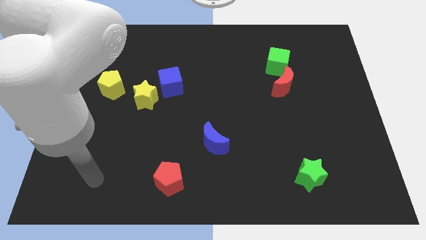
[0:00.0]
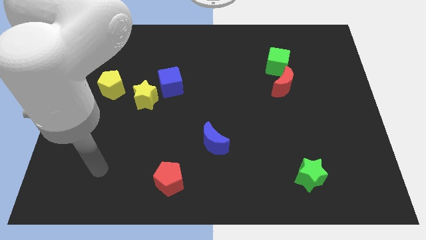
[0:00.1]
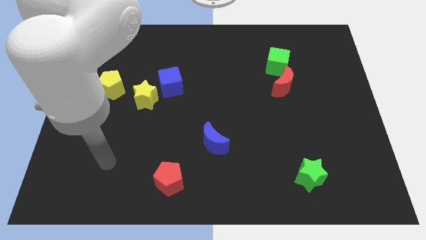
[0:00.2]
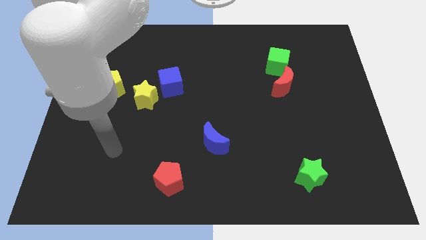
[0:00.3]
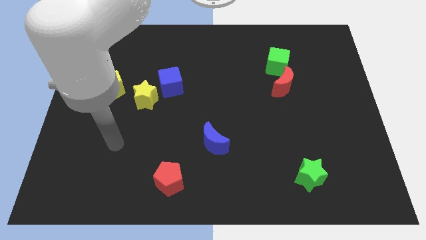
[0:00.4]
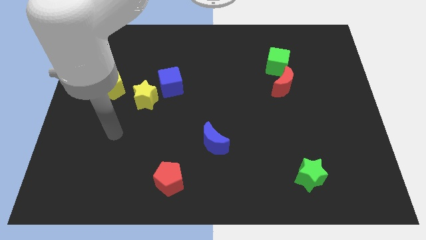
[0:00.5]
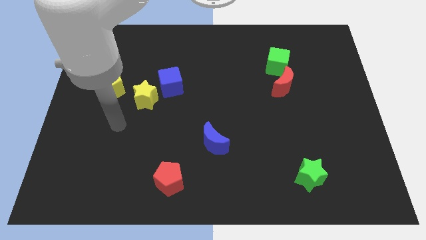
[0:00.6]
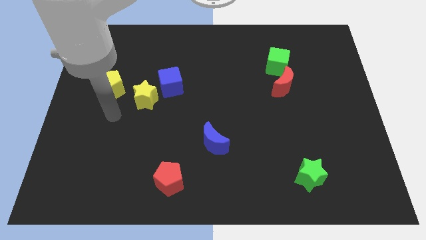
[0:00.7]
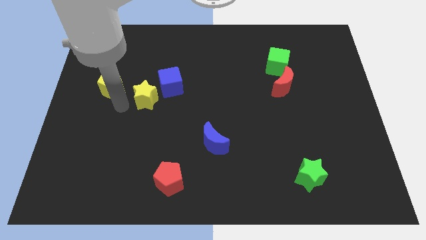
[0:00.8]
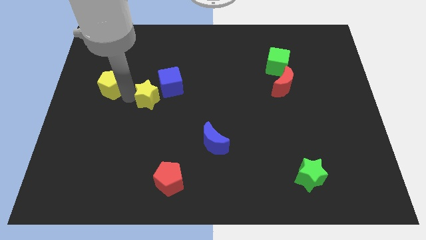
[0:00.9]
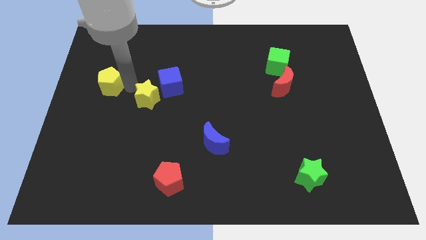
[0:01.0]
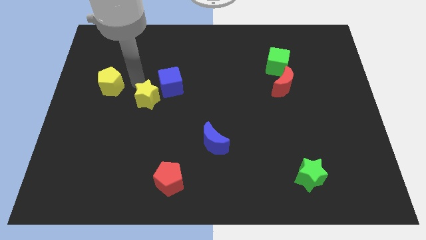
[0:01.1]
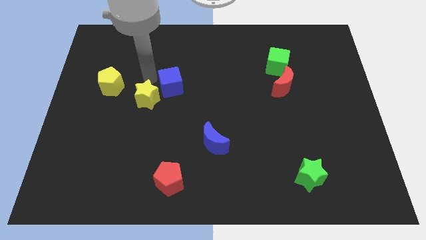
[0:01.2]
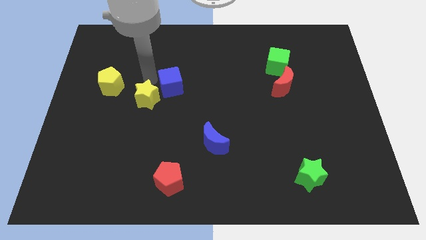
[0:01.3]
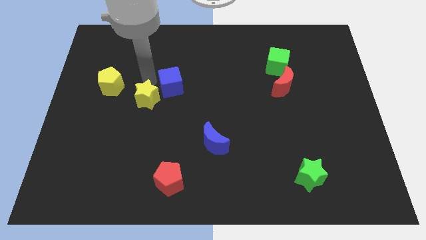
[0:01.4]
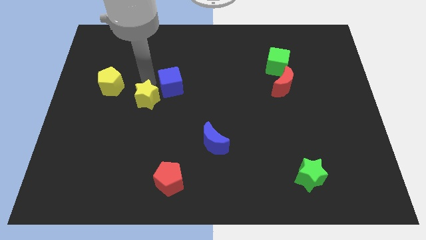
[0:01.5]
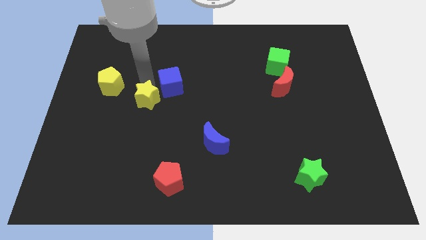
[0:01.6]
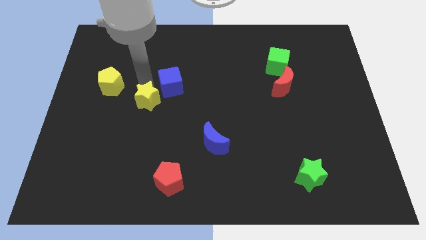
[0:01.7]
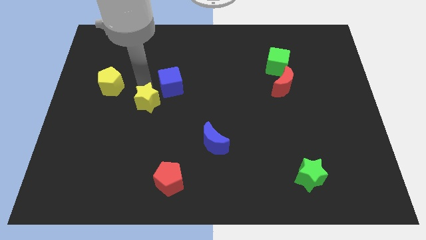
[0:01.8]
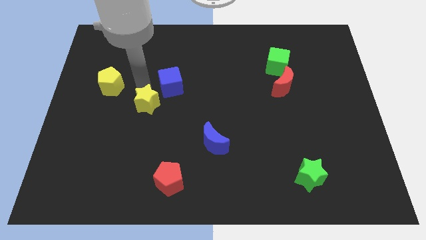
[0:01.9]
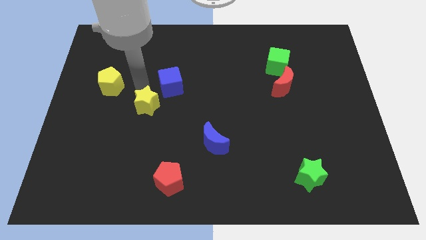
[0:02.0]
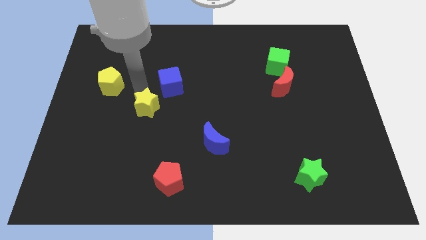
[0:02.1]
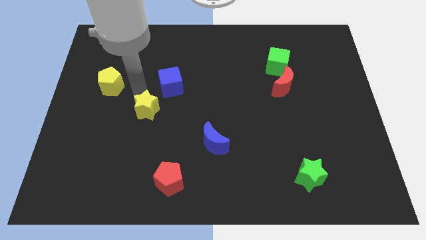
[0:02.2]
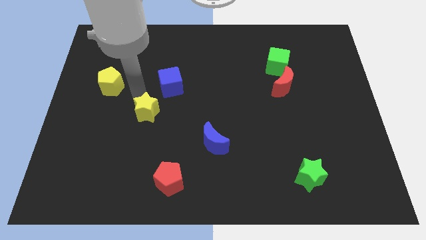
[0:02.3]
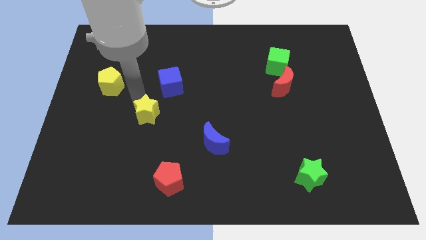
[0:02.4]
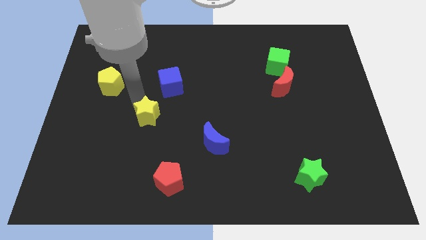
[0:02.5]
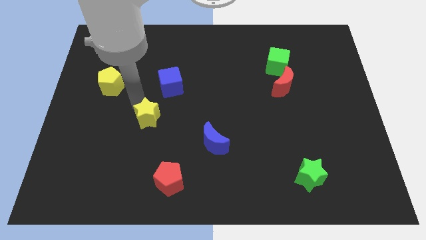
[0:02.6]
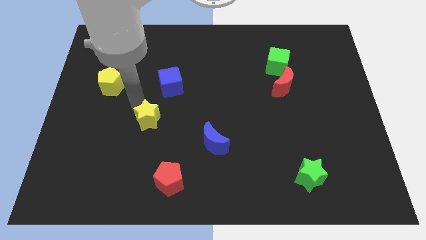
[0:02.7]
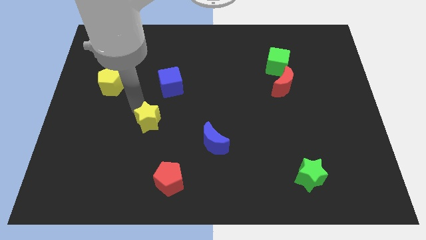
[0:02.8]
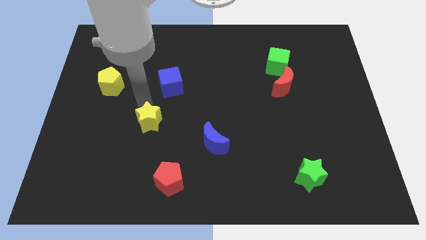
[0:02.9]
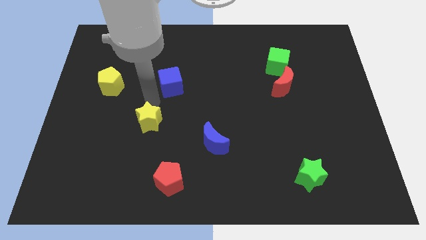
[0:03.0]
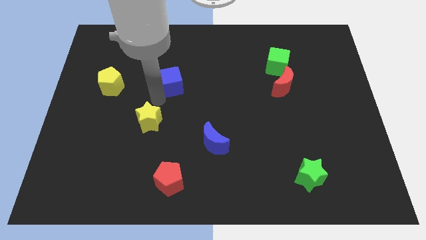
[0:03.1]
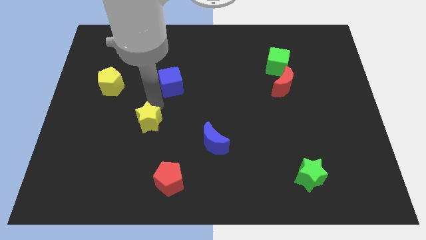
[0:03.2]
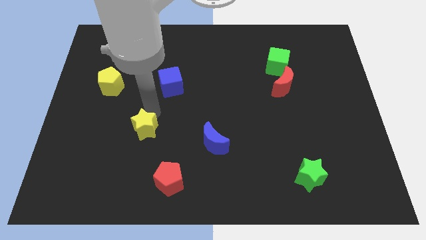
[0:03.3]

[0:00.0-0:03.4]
move the yellow star slightly down

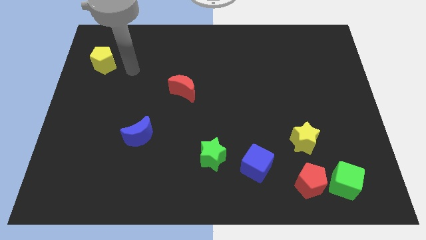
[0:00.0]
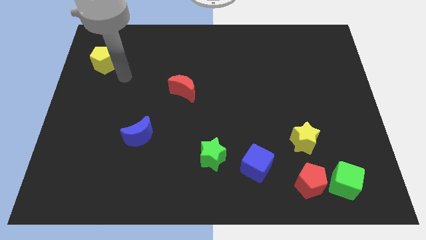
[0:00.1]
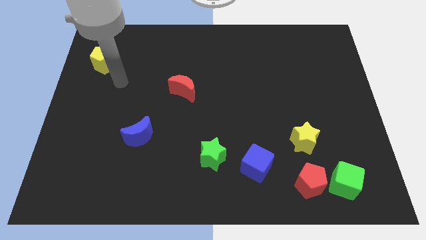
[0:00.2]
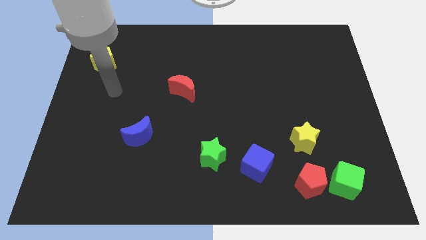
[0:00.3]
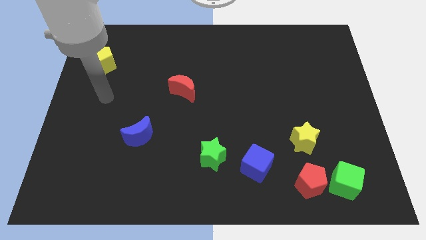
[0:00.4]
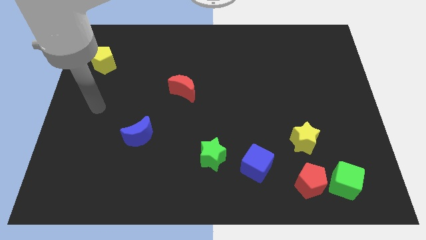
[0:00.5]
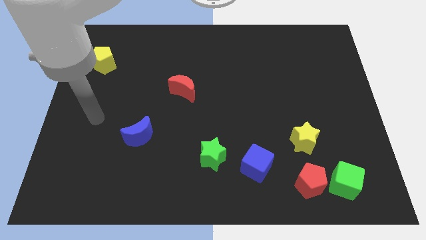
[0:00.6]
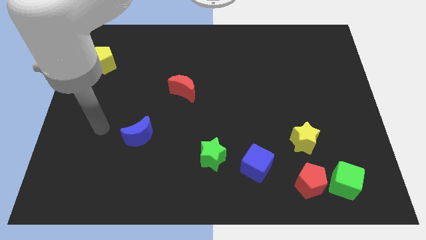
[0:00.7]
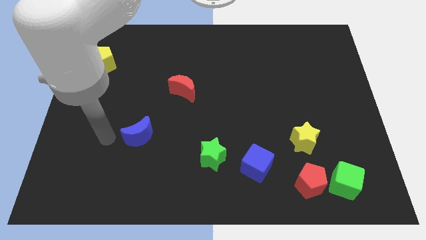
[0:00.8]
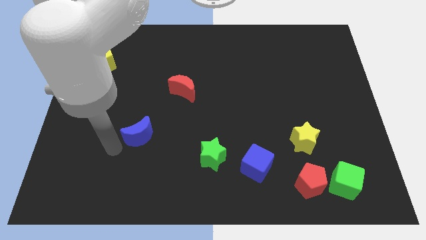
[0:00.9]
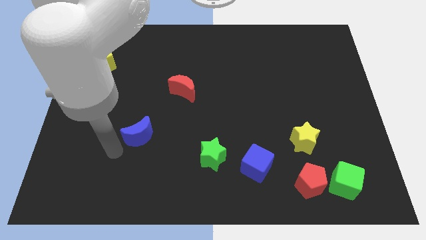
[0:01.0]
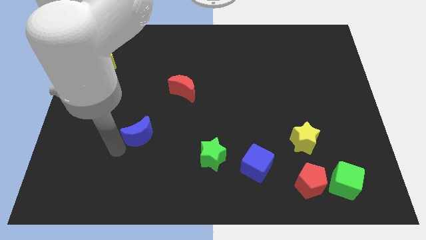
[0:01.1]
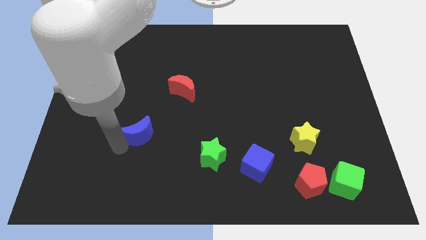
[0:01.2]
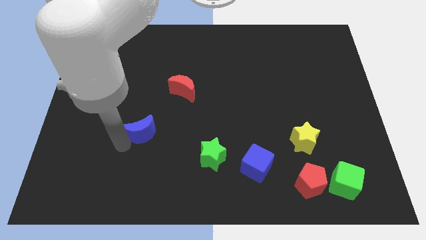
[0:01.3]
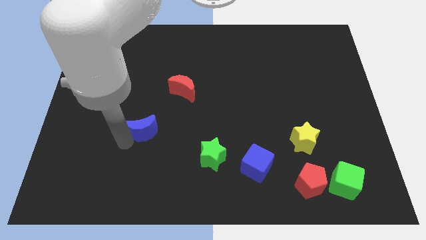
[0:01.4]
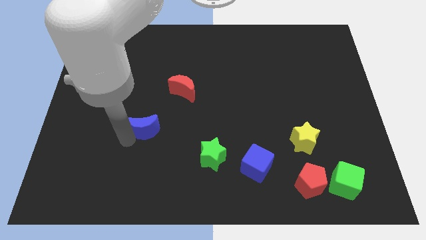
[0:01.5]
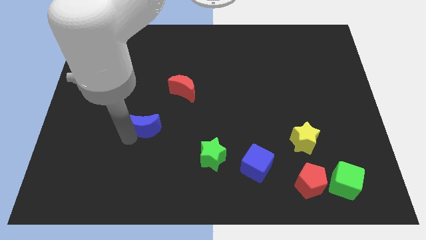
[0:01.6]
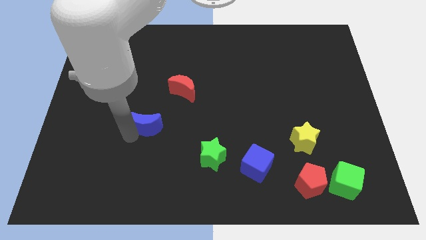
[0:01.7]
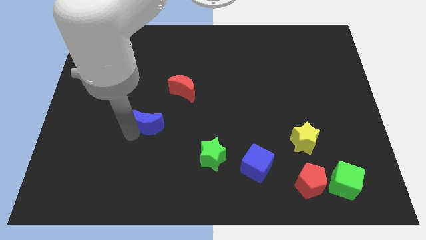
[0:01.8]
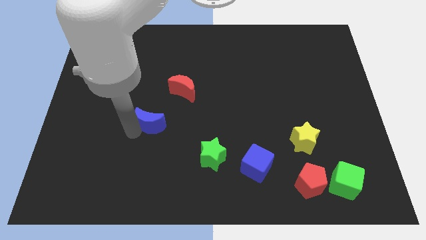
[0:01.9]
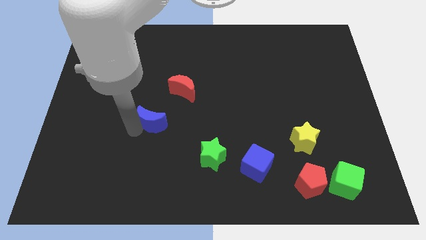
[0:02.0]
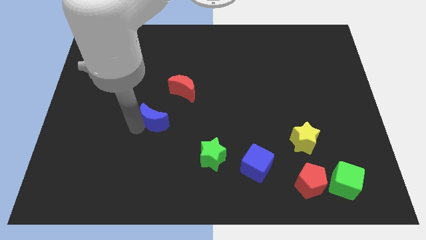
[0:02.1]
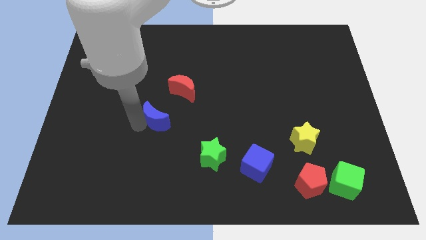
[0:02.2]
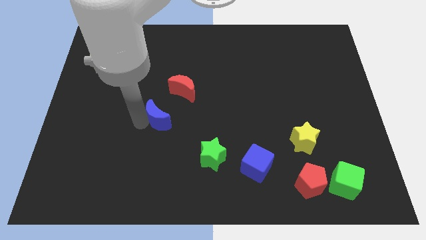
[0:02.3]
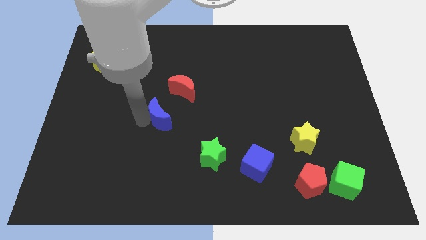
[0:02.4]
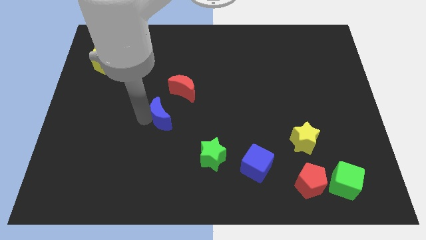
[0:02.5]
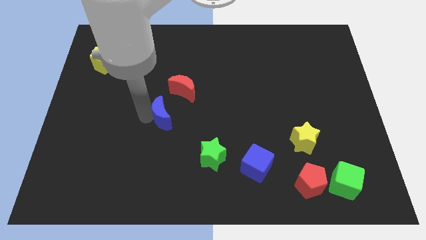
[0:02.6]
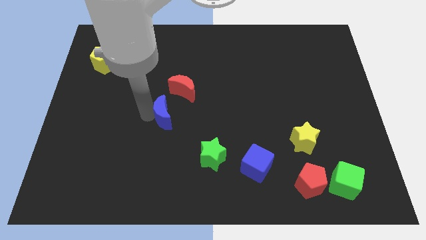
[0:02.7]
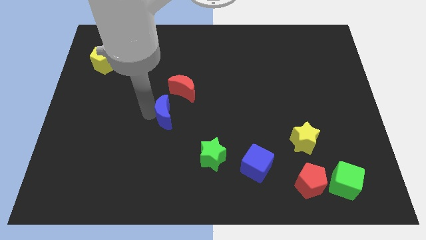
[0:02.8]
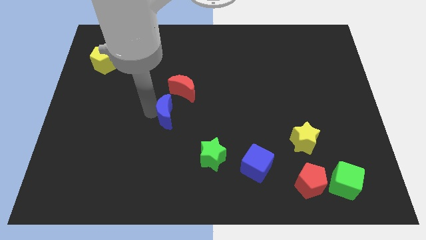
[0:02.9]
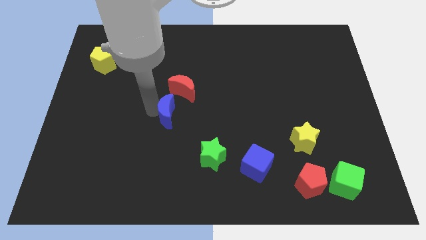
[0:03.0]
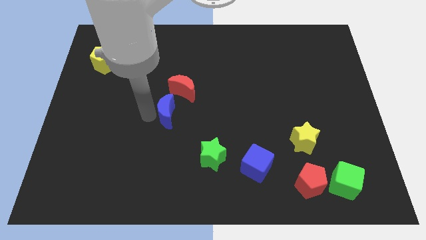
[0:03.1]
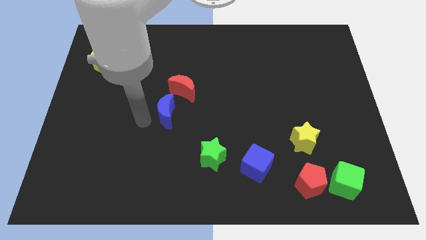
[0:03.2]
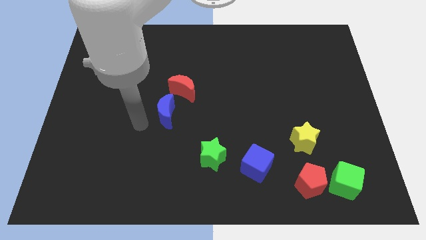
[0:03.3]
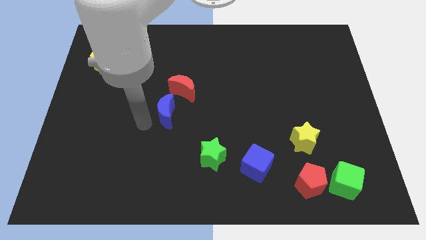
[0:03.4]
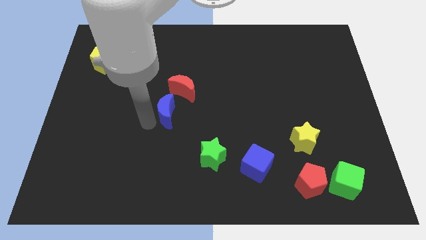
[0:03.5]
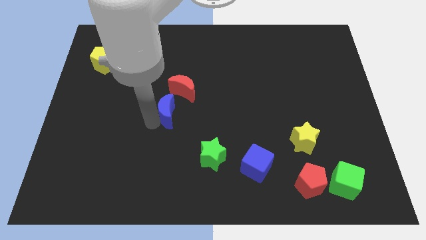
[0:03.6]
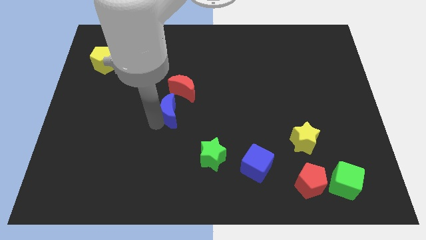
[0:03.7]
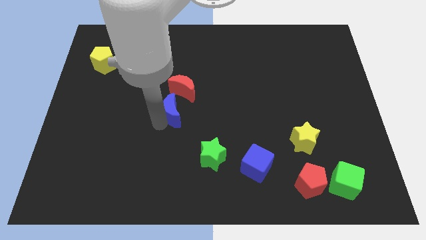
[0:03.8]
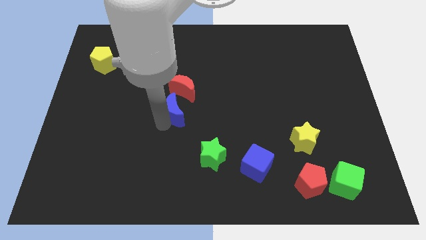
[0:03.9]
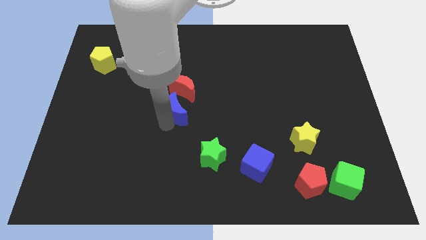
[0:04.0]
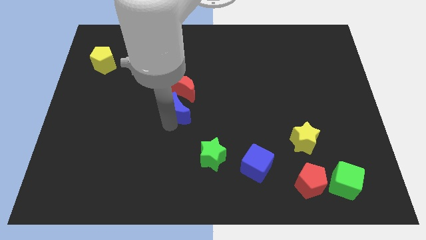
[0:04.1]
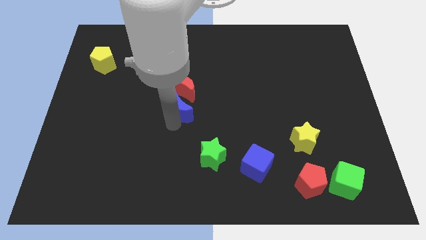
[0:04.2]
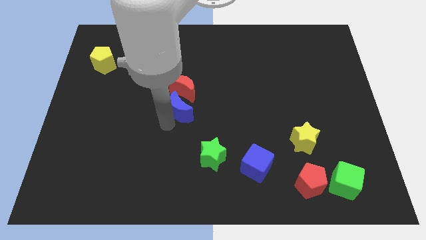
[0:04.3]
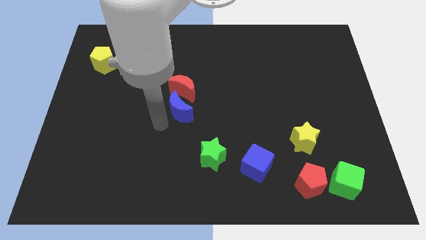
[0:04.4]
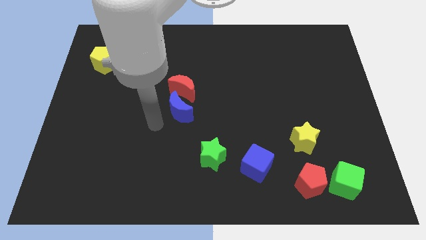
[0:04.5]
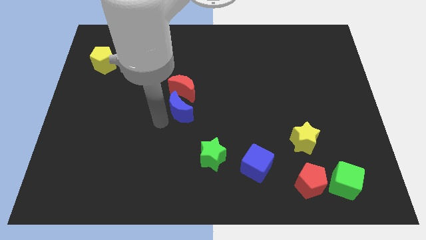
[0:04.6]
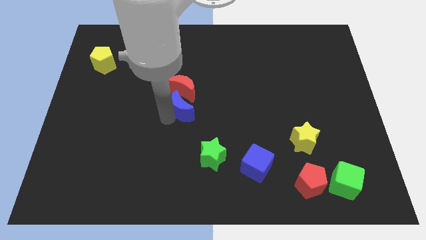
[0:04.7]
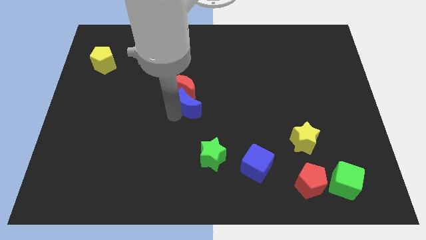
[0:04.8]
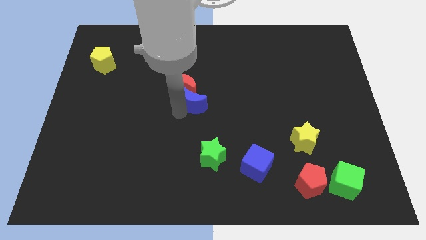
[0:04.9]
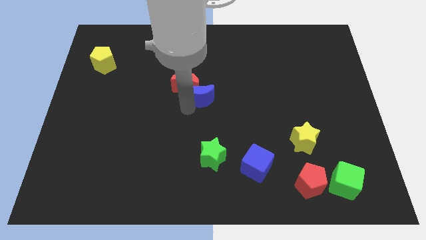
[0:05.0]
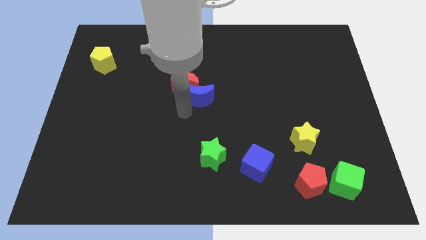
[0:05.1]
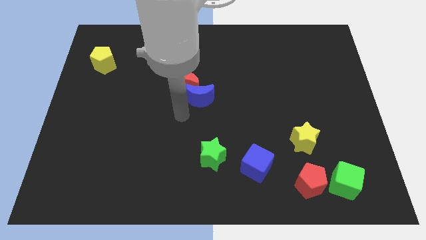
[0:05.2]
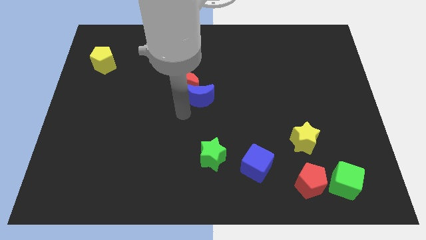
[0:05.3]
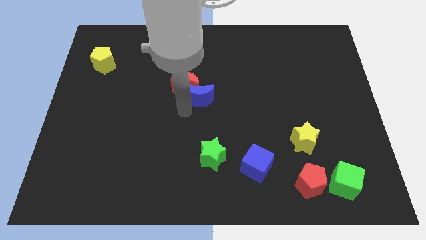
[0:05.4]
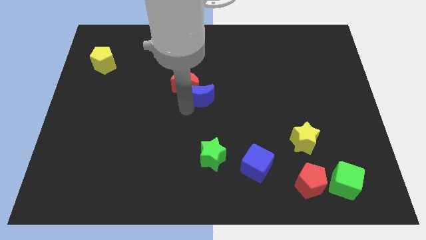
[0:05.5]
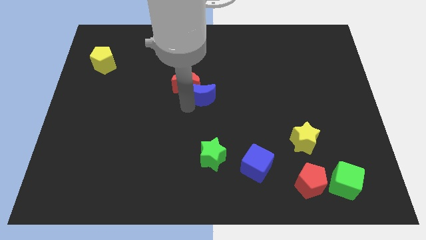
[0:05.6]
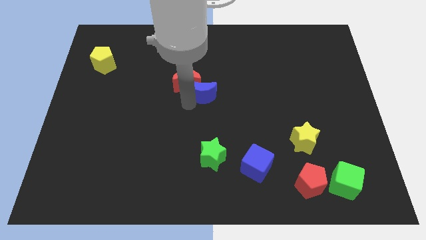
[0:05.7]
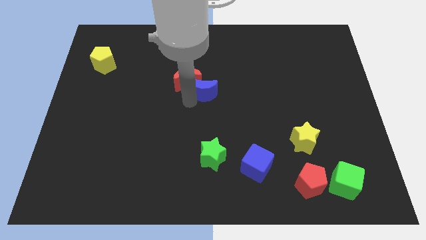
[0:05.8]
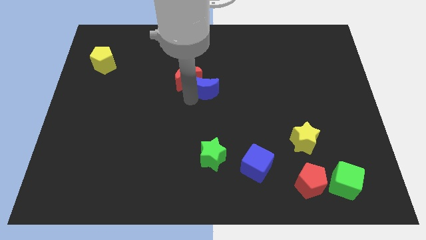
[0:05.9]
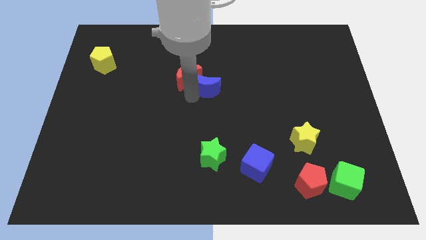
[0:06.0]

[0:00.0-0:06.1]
slide the blue moon up and right diagonally
